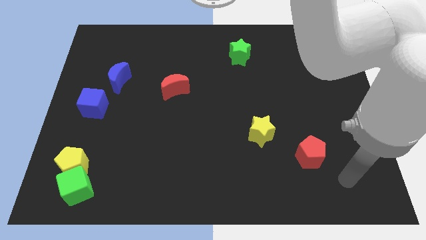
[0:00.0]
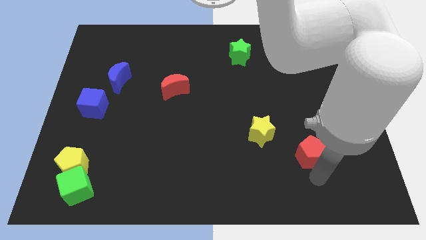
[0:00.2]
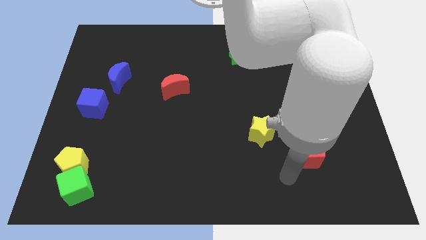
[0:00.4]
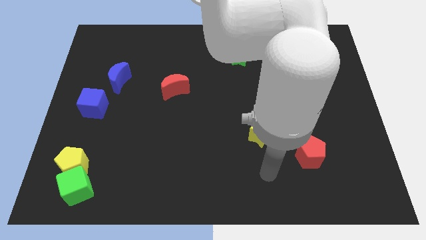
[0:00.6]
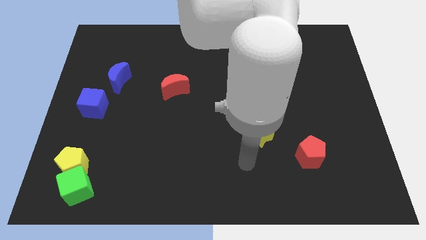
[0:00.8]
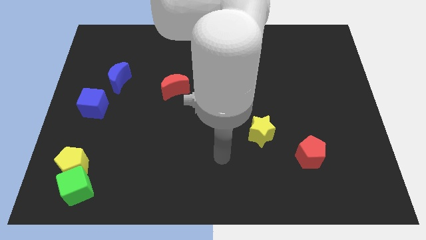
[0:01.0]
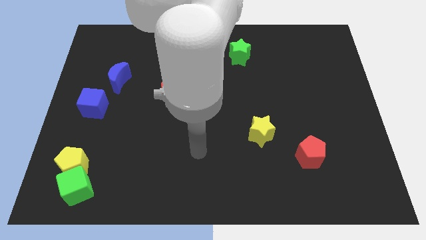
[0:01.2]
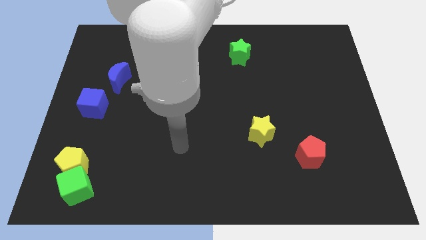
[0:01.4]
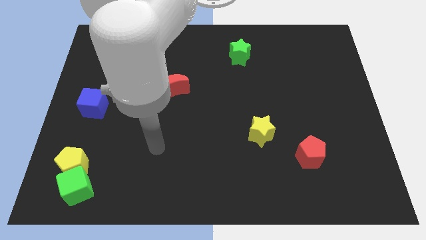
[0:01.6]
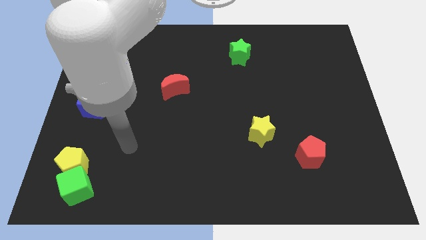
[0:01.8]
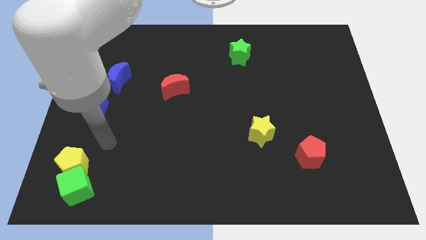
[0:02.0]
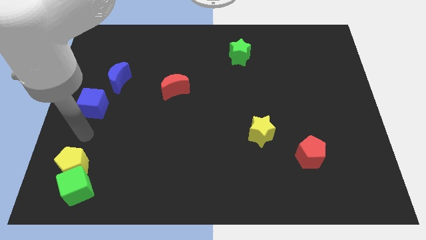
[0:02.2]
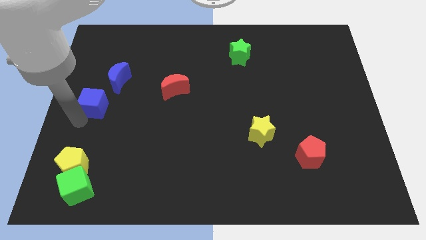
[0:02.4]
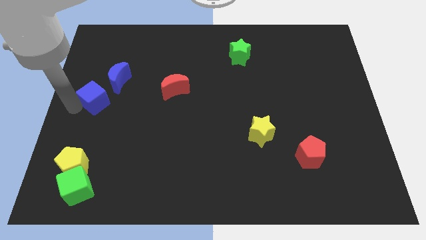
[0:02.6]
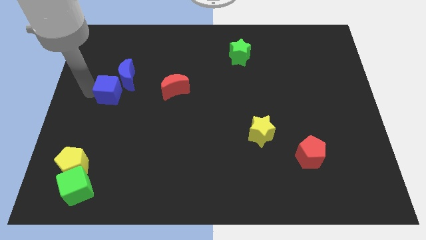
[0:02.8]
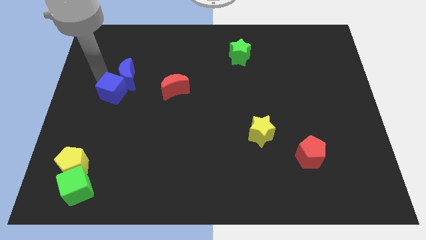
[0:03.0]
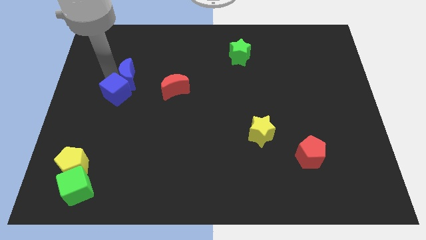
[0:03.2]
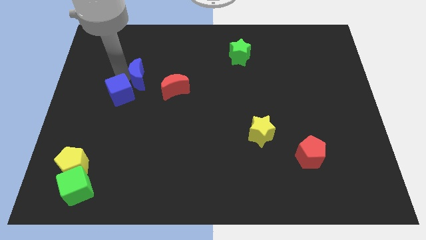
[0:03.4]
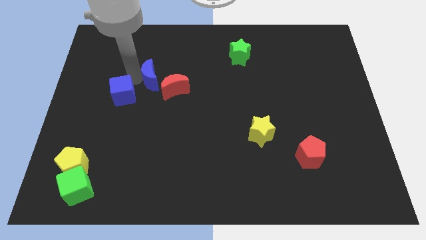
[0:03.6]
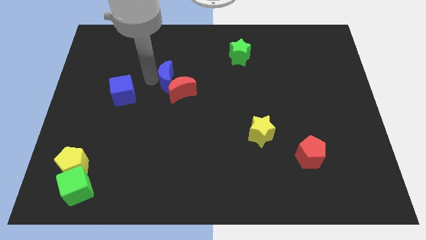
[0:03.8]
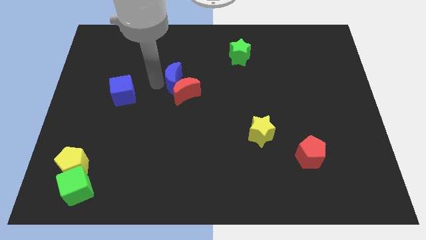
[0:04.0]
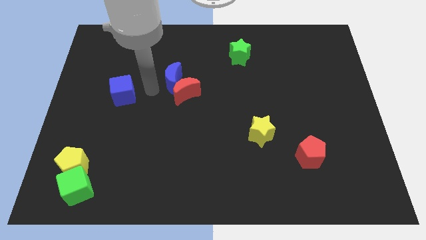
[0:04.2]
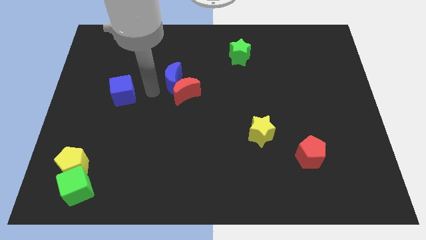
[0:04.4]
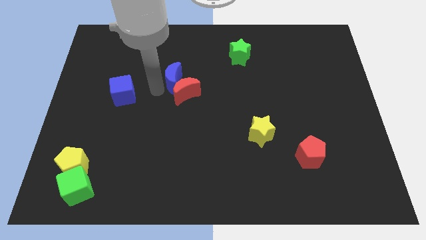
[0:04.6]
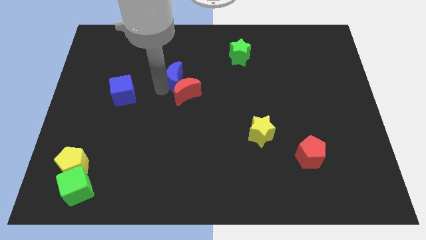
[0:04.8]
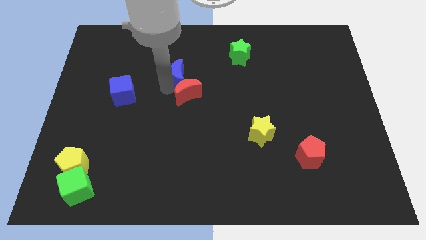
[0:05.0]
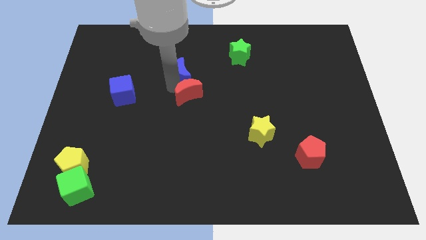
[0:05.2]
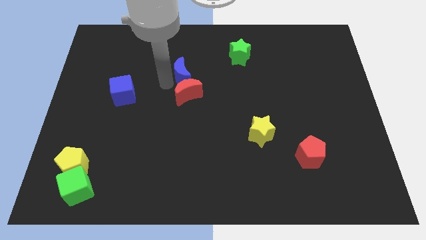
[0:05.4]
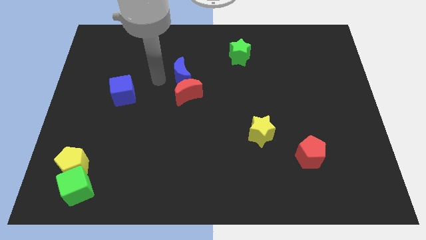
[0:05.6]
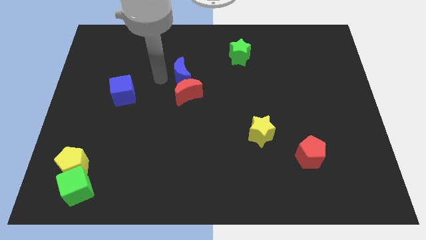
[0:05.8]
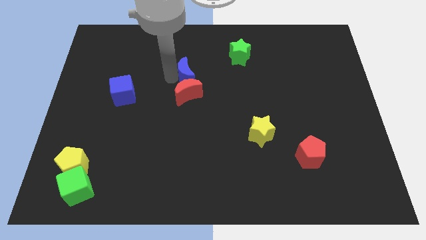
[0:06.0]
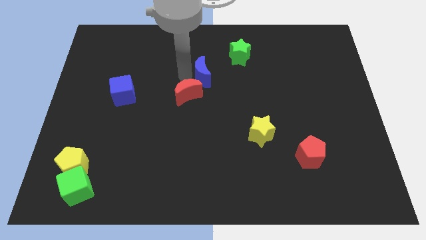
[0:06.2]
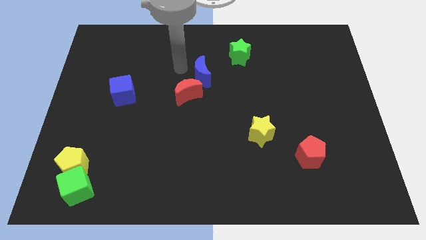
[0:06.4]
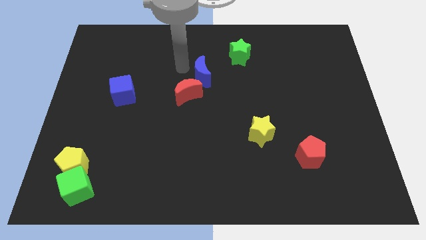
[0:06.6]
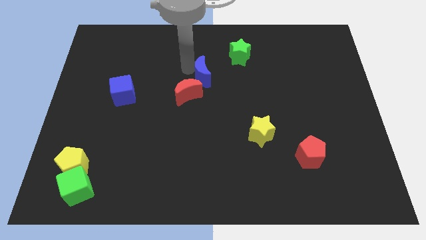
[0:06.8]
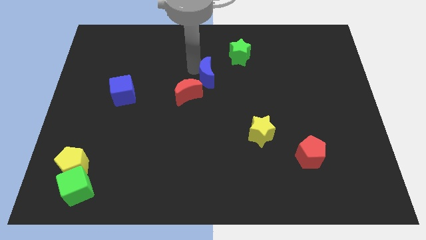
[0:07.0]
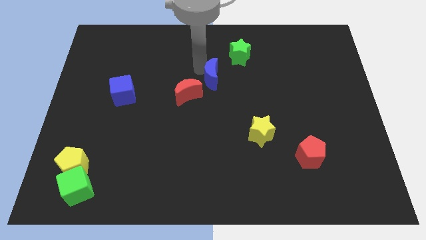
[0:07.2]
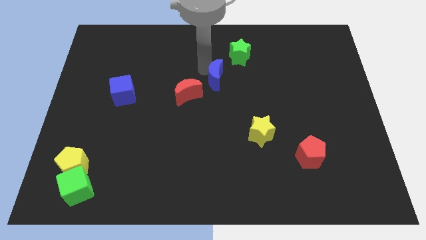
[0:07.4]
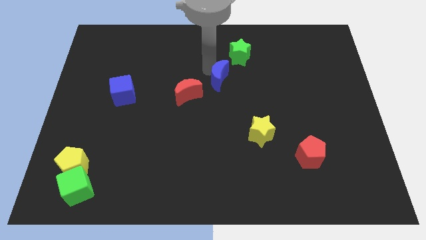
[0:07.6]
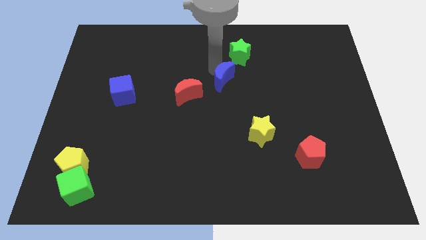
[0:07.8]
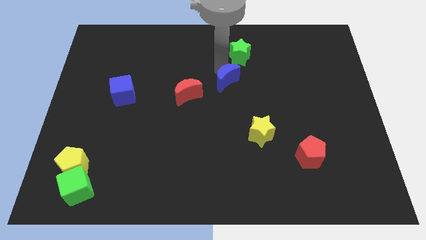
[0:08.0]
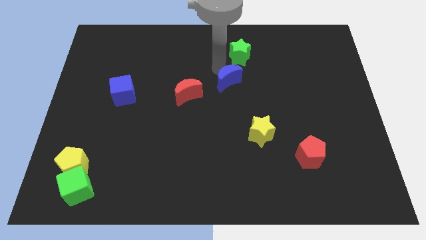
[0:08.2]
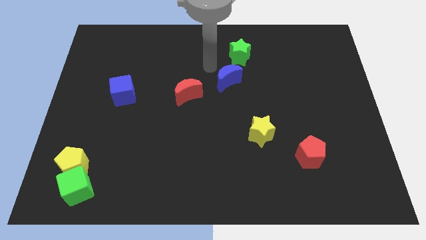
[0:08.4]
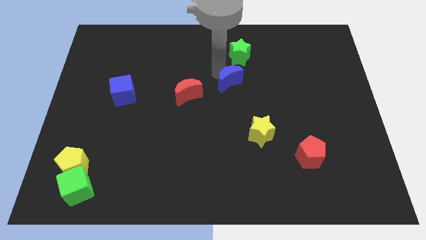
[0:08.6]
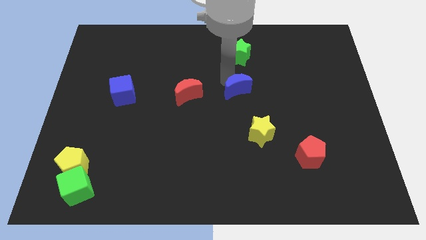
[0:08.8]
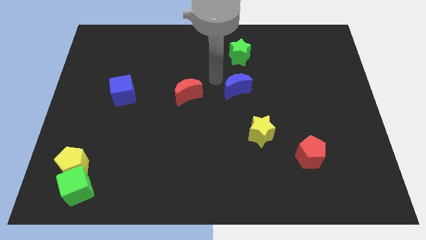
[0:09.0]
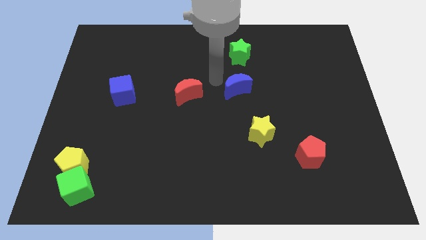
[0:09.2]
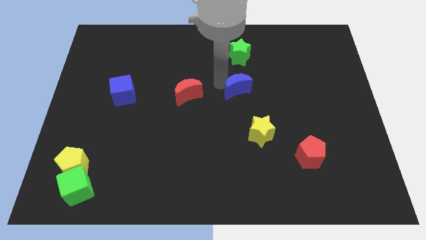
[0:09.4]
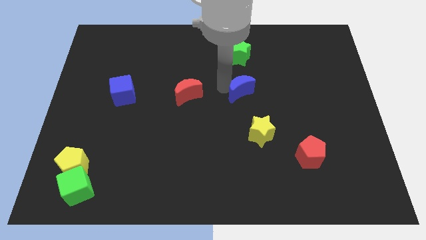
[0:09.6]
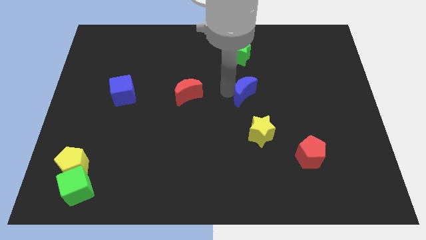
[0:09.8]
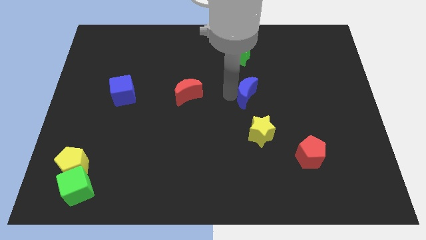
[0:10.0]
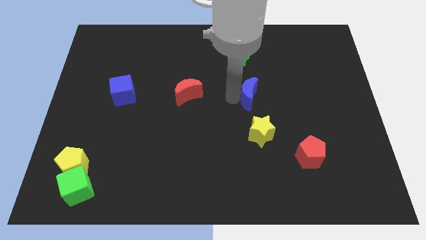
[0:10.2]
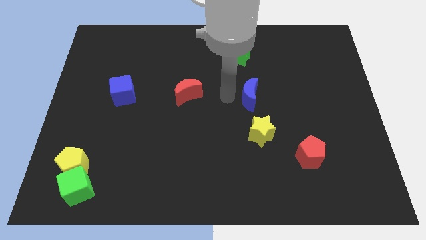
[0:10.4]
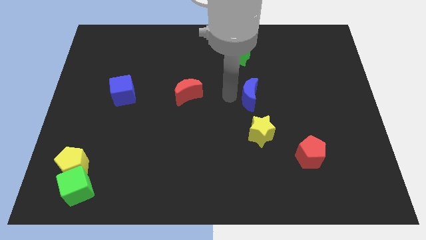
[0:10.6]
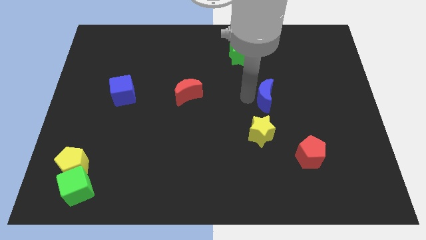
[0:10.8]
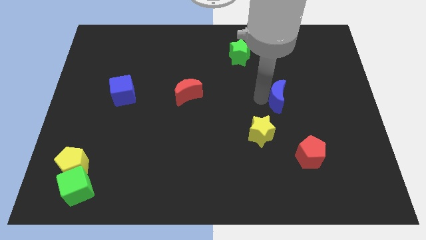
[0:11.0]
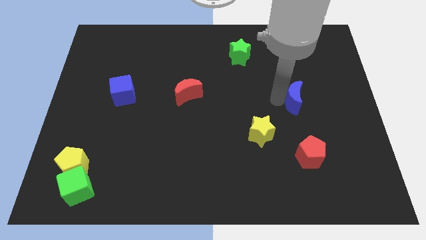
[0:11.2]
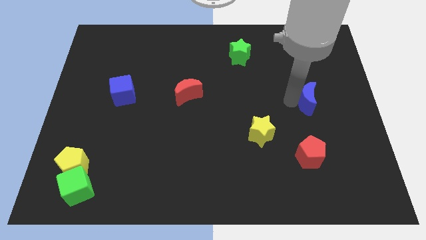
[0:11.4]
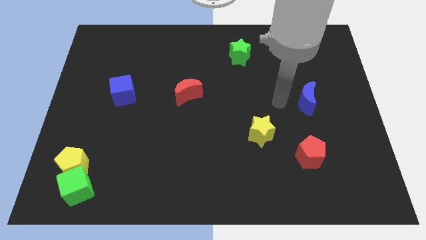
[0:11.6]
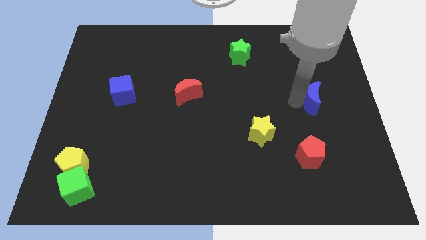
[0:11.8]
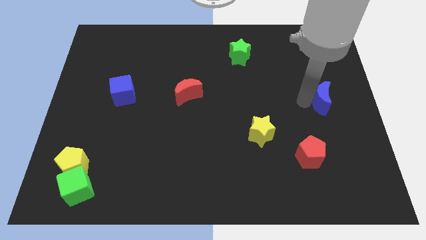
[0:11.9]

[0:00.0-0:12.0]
put the blue moon to the center right
